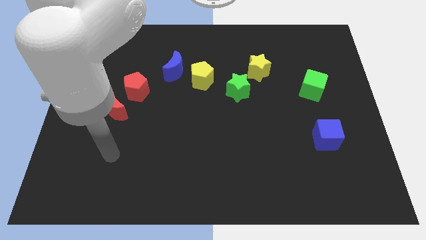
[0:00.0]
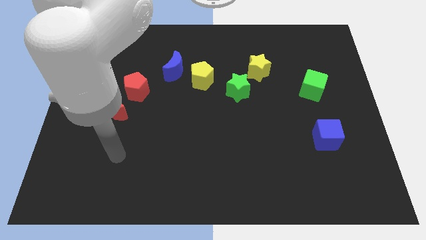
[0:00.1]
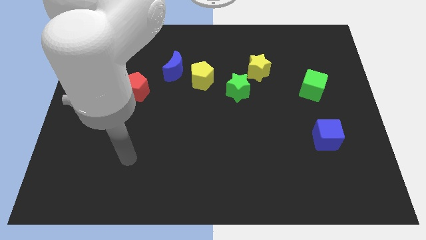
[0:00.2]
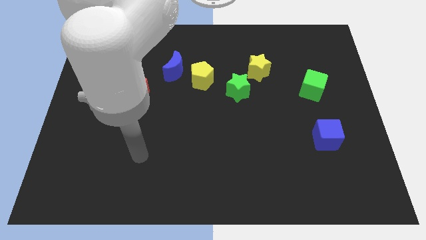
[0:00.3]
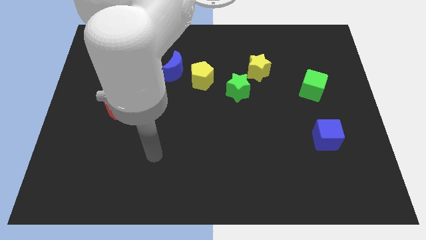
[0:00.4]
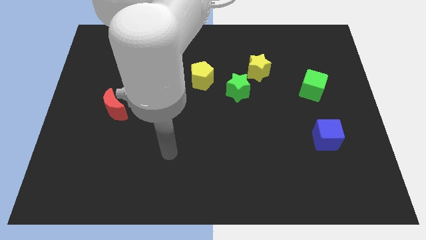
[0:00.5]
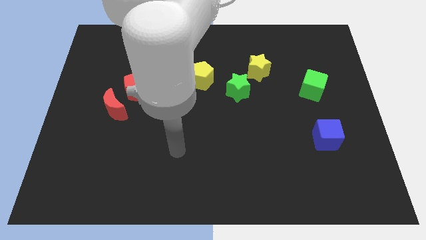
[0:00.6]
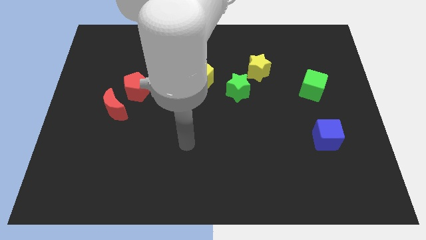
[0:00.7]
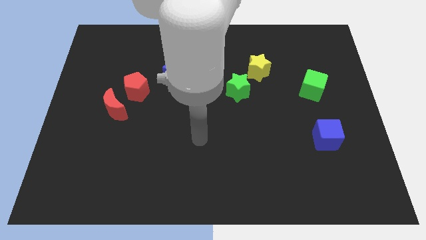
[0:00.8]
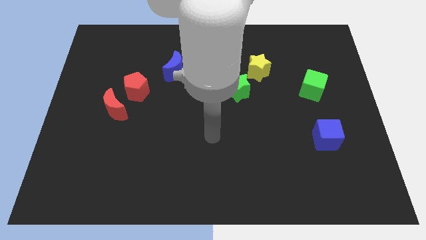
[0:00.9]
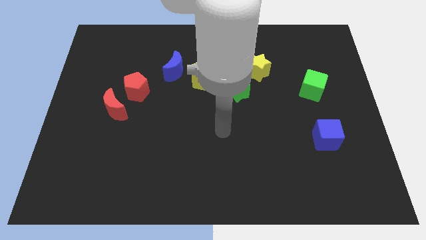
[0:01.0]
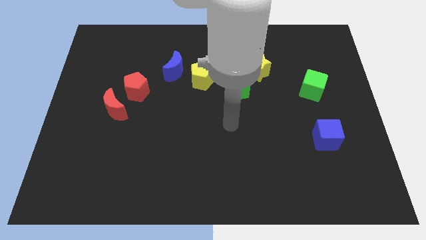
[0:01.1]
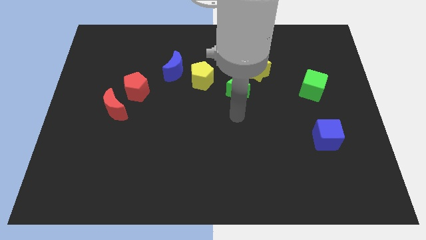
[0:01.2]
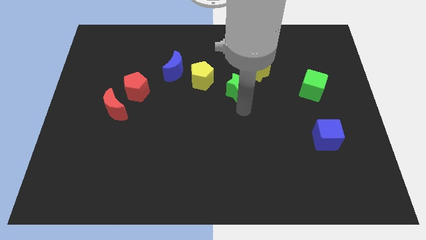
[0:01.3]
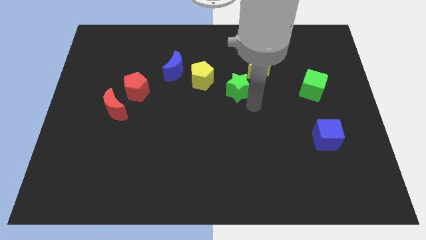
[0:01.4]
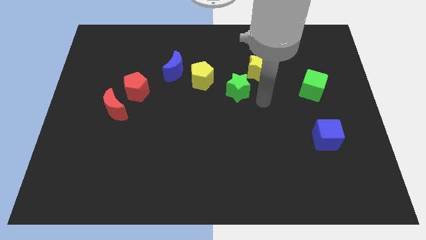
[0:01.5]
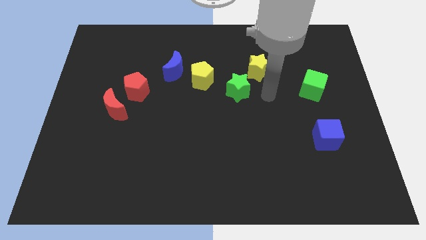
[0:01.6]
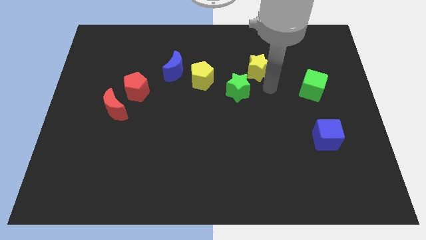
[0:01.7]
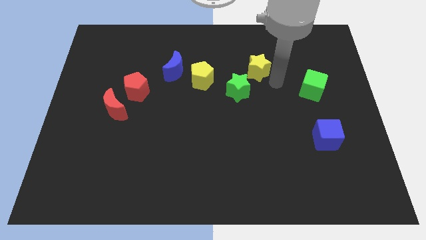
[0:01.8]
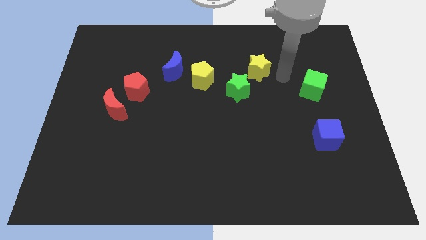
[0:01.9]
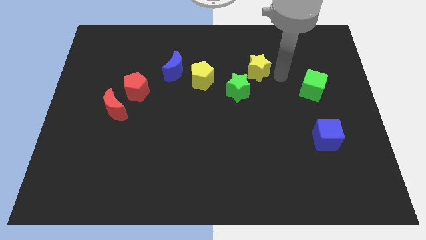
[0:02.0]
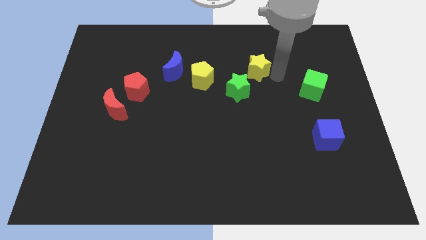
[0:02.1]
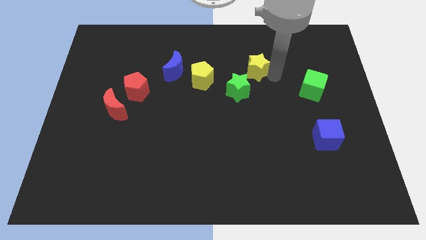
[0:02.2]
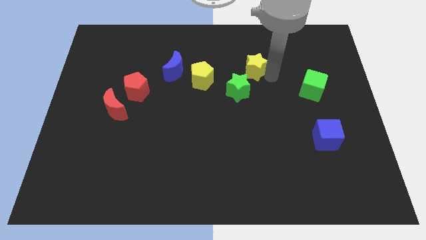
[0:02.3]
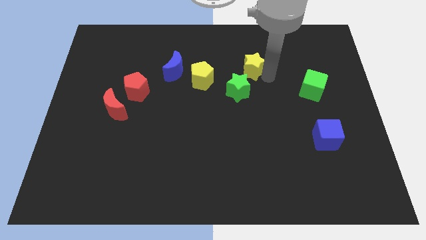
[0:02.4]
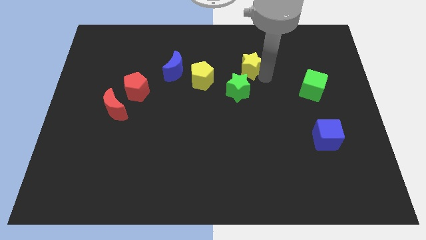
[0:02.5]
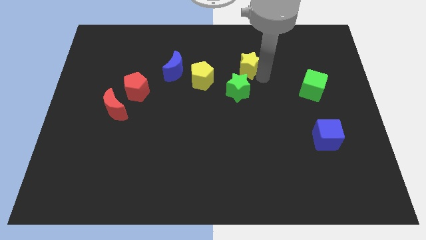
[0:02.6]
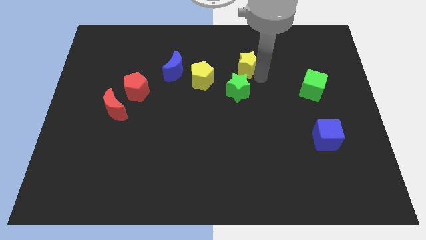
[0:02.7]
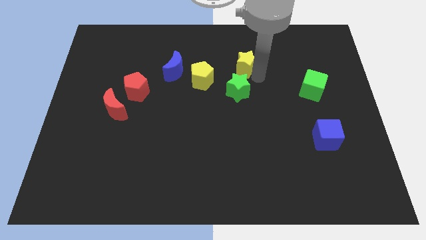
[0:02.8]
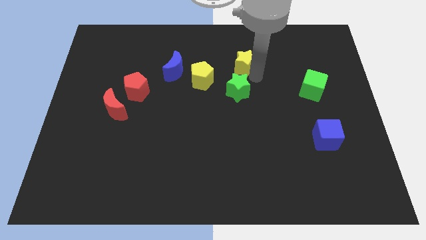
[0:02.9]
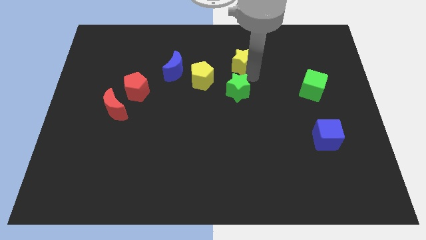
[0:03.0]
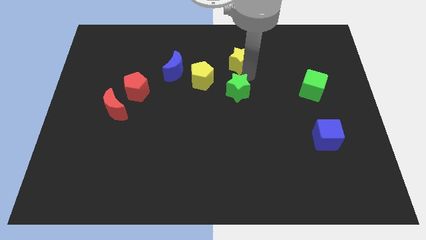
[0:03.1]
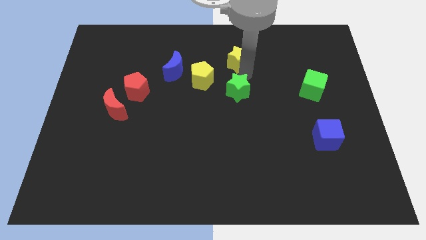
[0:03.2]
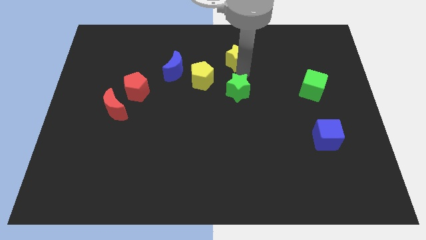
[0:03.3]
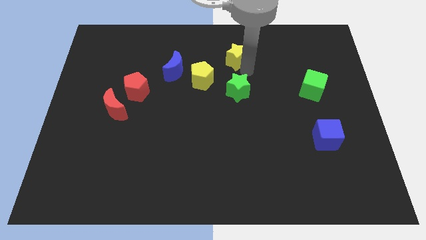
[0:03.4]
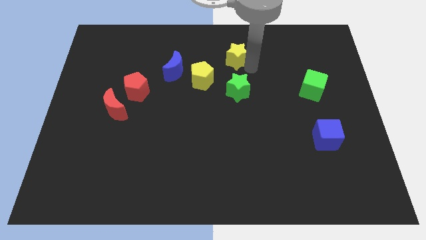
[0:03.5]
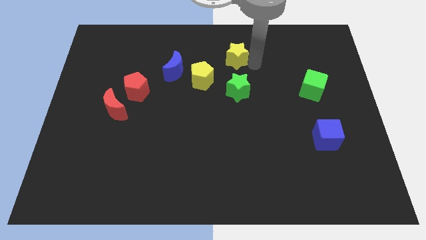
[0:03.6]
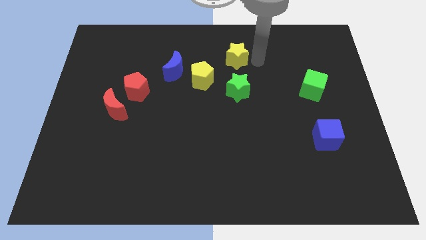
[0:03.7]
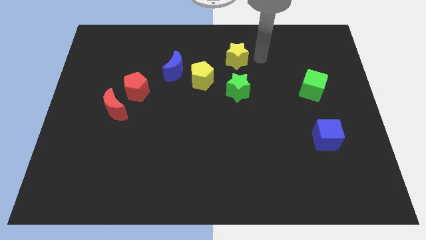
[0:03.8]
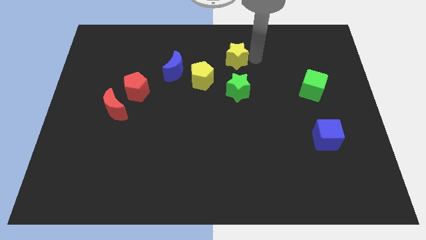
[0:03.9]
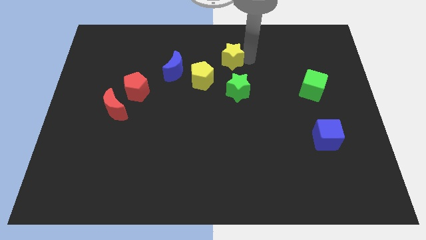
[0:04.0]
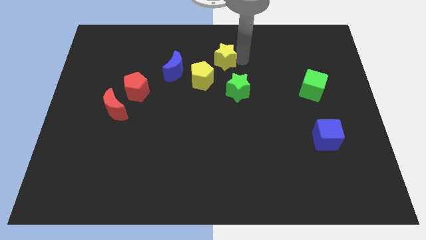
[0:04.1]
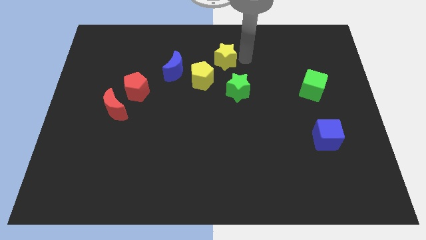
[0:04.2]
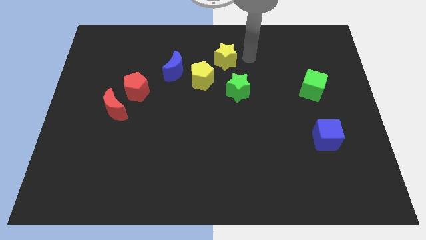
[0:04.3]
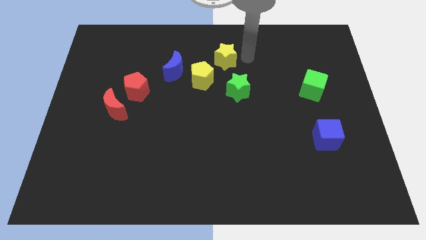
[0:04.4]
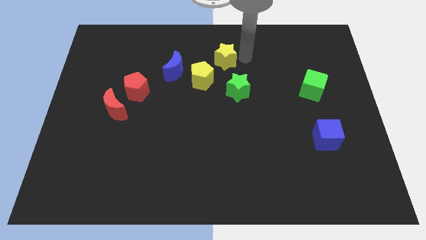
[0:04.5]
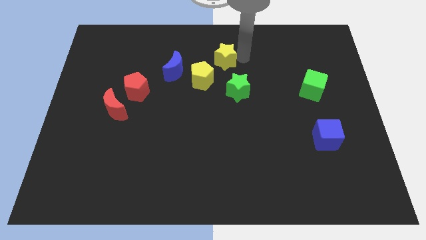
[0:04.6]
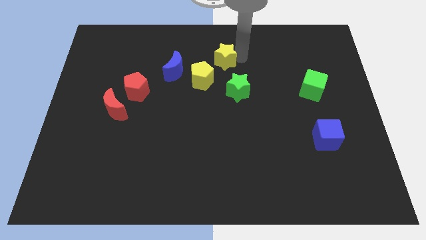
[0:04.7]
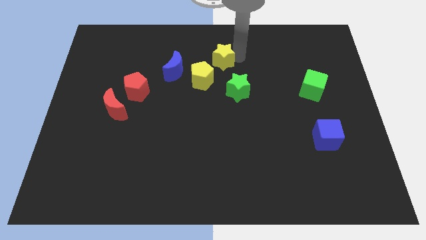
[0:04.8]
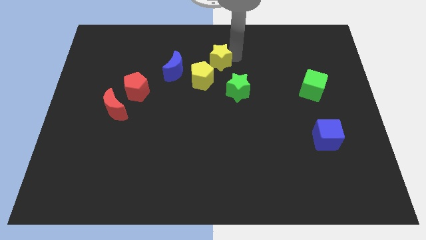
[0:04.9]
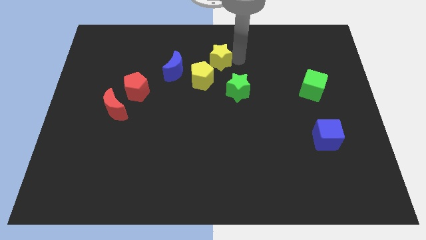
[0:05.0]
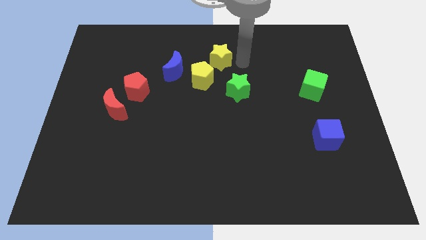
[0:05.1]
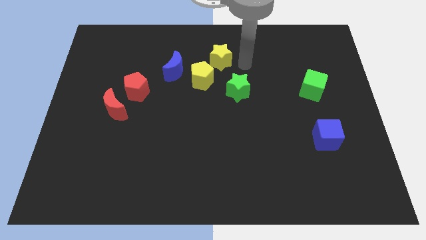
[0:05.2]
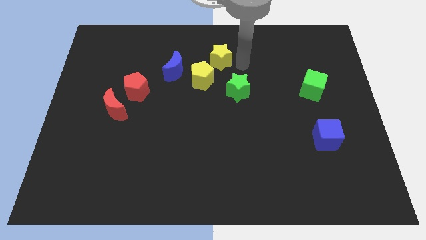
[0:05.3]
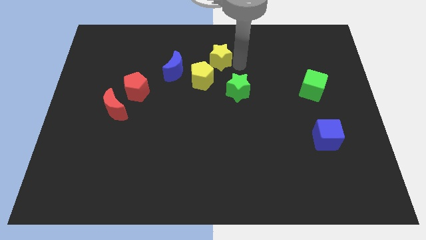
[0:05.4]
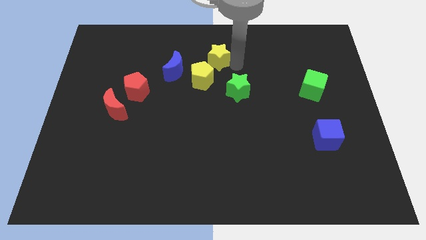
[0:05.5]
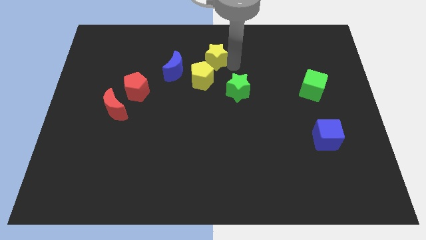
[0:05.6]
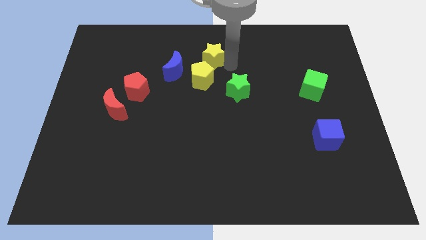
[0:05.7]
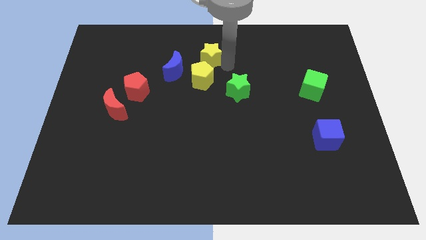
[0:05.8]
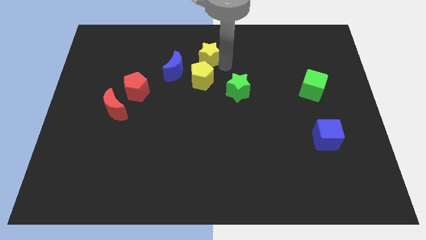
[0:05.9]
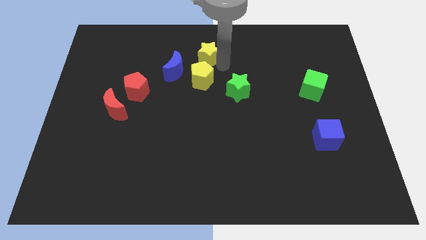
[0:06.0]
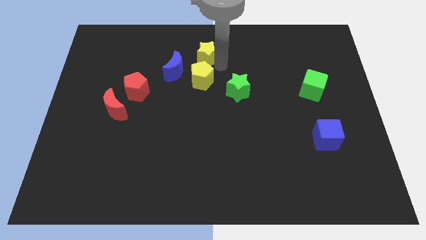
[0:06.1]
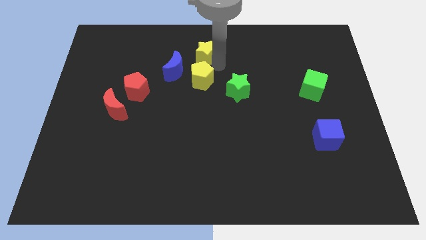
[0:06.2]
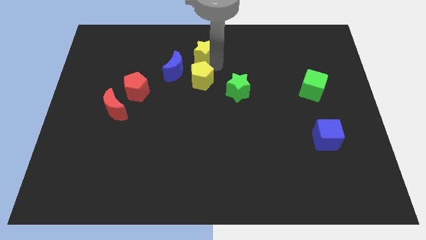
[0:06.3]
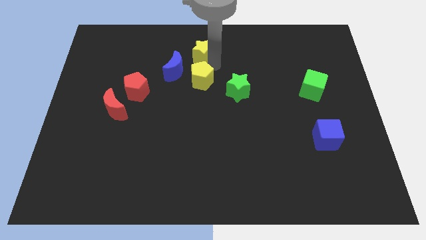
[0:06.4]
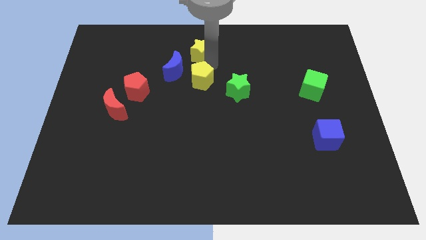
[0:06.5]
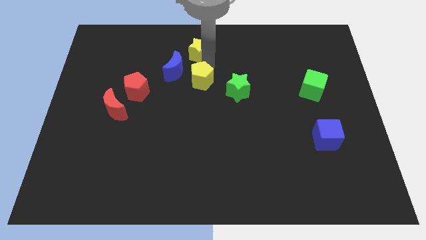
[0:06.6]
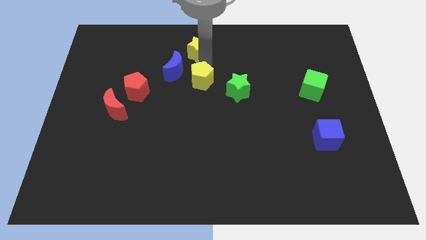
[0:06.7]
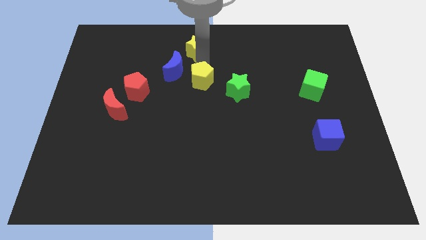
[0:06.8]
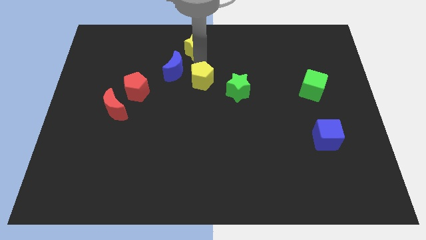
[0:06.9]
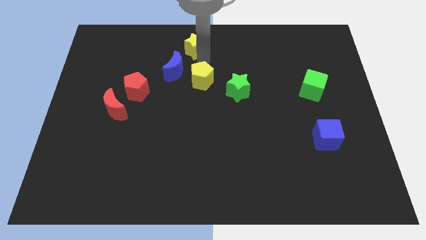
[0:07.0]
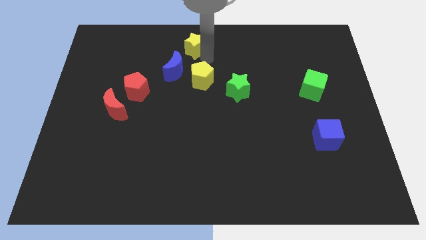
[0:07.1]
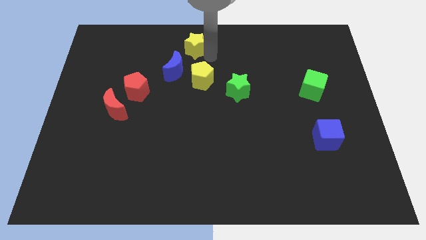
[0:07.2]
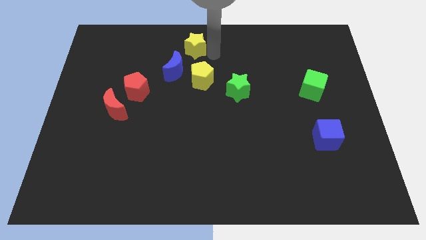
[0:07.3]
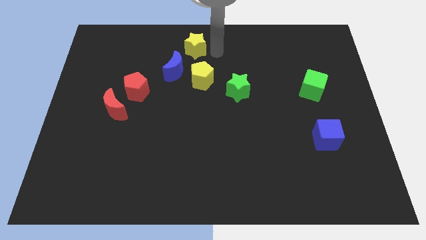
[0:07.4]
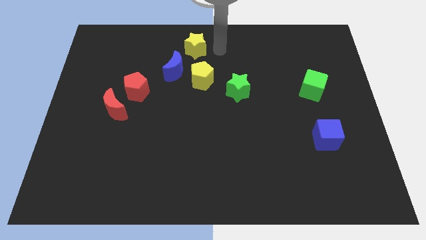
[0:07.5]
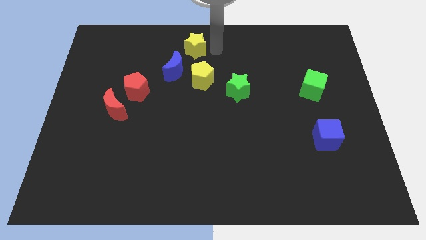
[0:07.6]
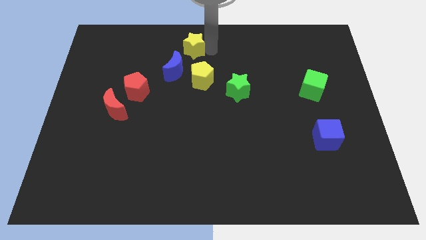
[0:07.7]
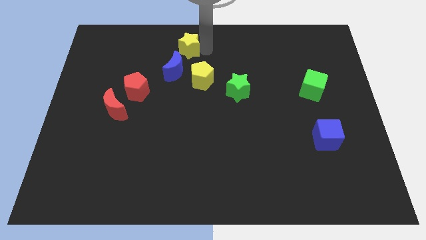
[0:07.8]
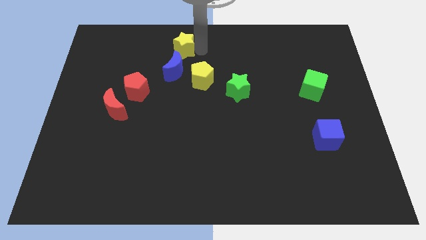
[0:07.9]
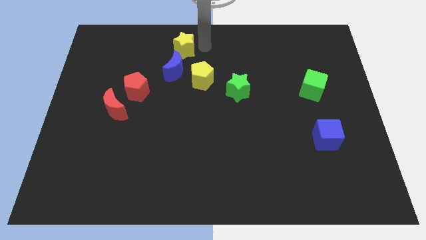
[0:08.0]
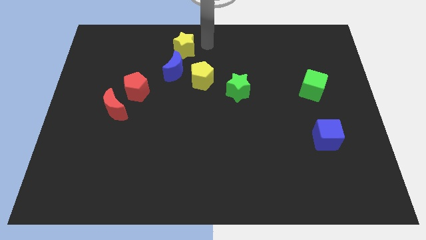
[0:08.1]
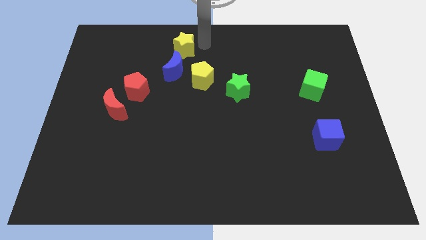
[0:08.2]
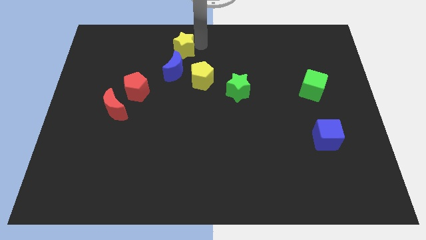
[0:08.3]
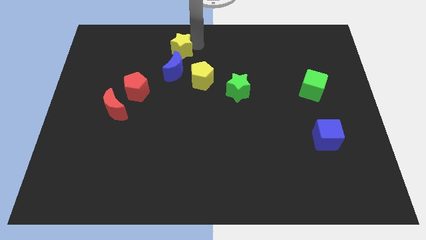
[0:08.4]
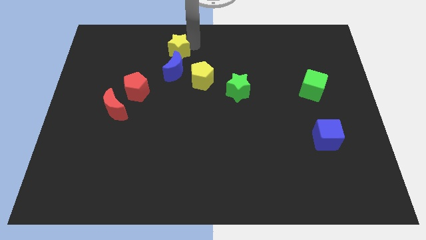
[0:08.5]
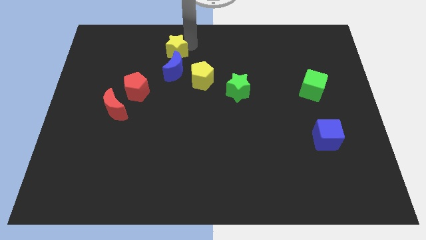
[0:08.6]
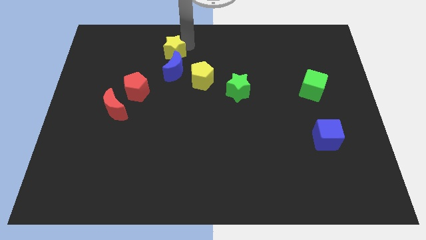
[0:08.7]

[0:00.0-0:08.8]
push the yellow star left
